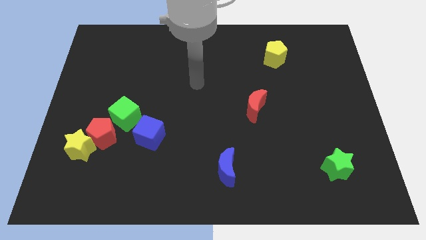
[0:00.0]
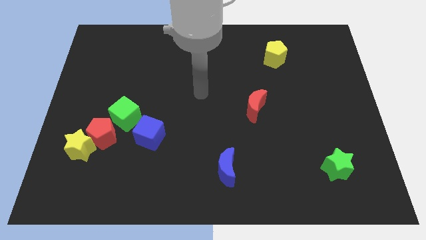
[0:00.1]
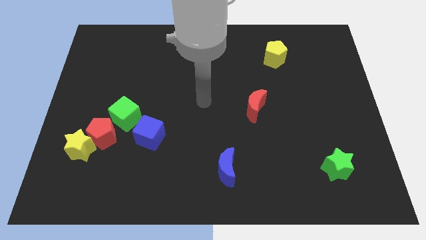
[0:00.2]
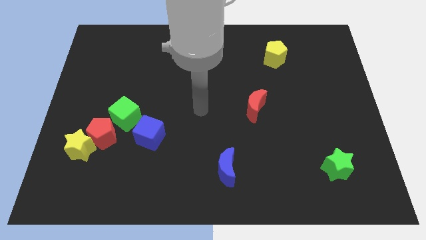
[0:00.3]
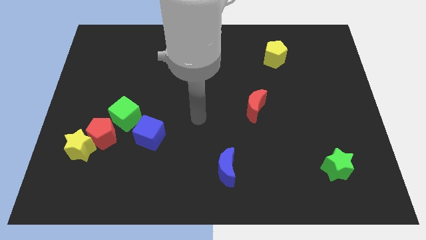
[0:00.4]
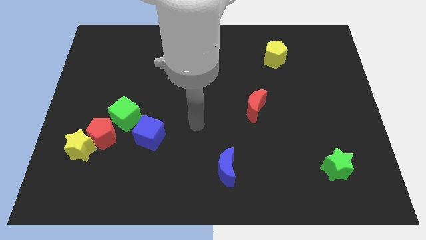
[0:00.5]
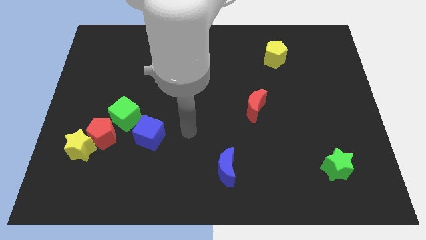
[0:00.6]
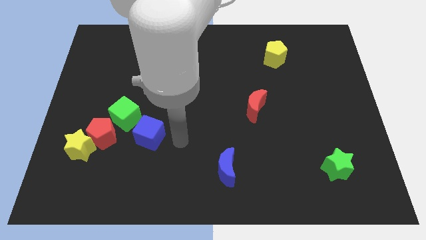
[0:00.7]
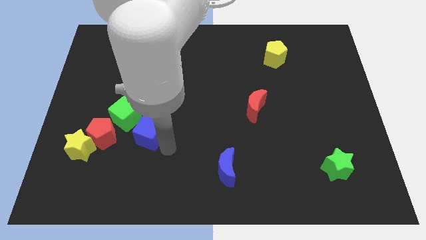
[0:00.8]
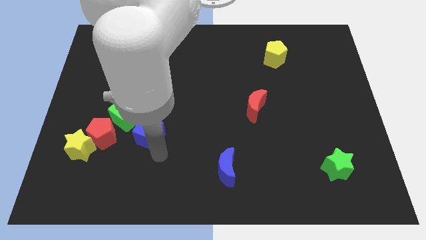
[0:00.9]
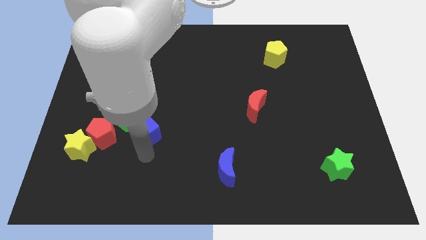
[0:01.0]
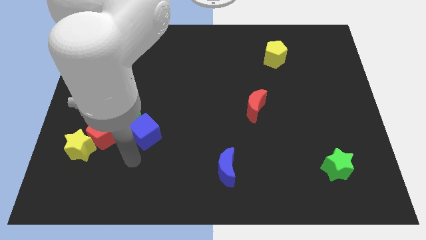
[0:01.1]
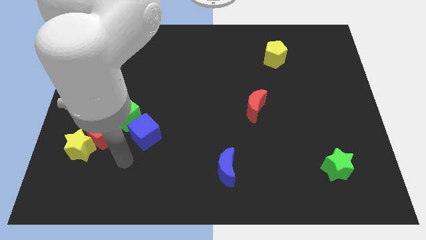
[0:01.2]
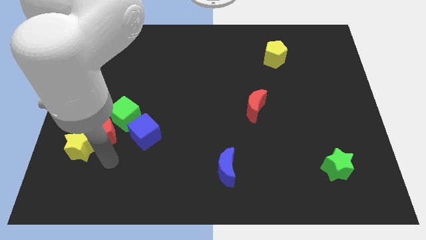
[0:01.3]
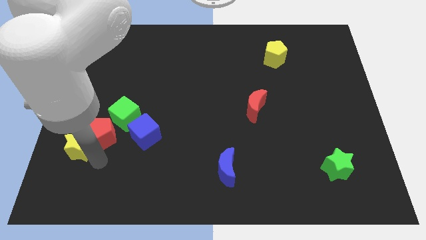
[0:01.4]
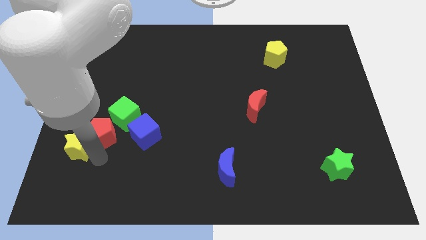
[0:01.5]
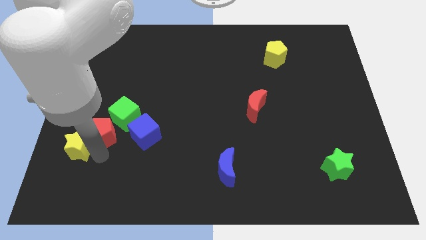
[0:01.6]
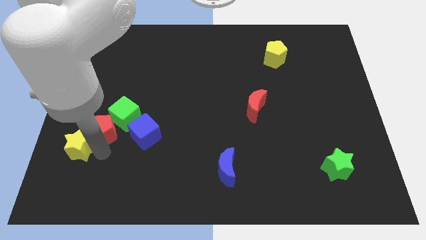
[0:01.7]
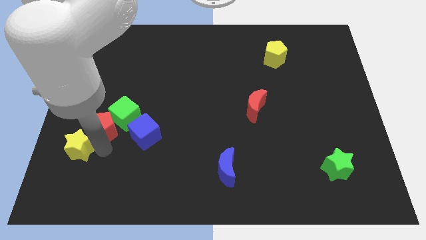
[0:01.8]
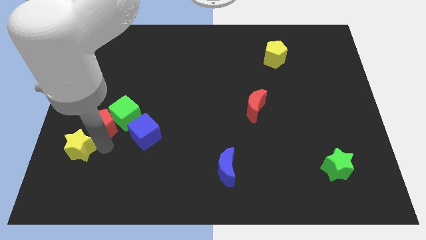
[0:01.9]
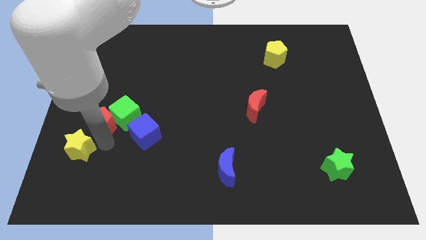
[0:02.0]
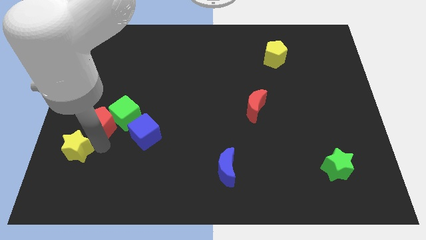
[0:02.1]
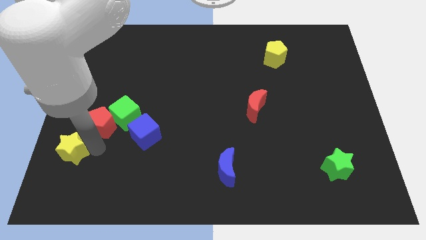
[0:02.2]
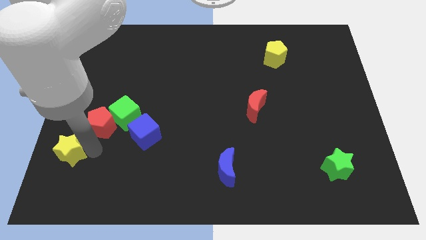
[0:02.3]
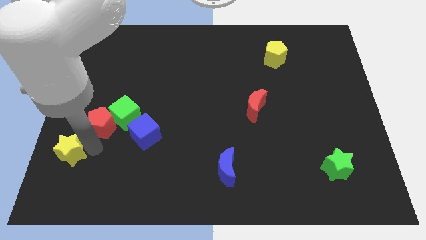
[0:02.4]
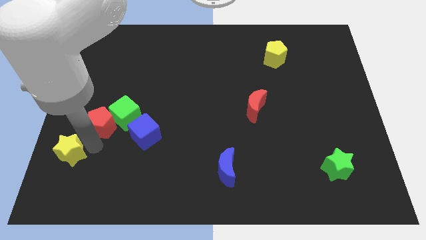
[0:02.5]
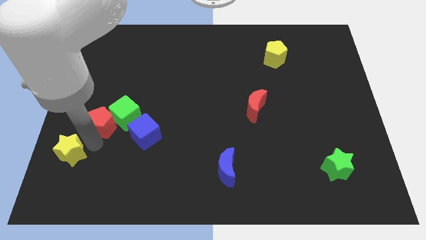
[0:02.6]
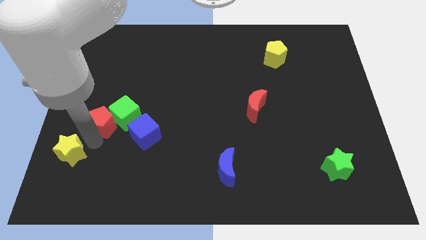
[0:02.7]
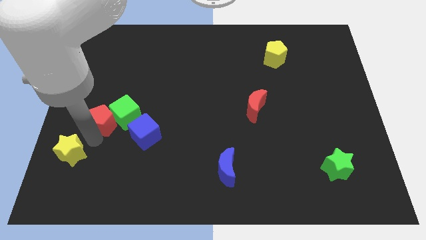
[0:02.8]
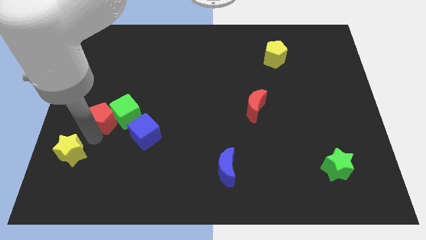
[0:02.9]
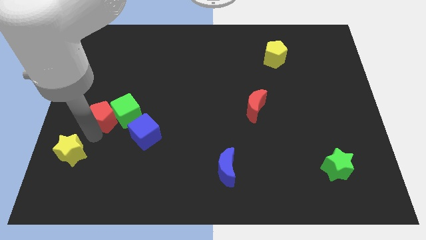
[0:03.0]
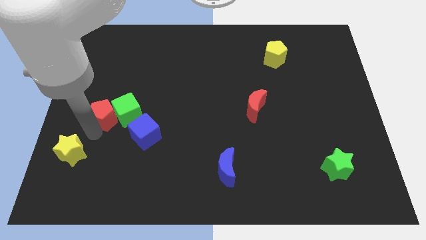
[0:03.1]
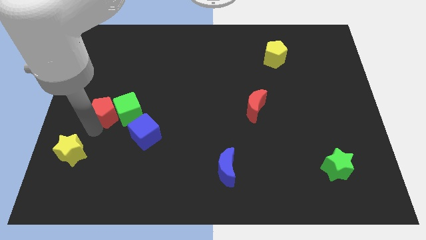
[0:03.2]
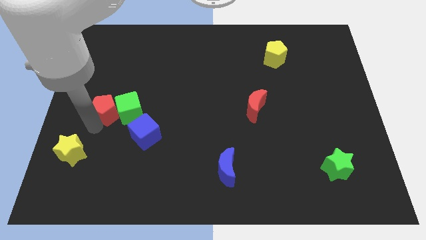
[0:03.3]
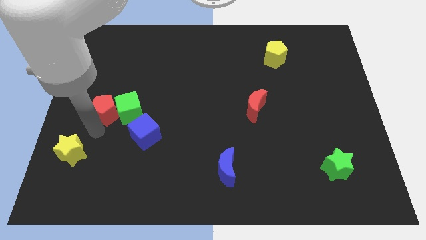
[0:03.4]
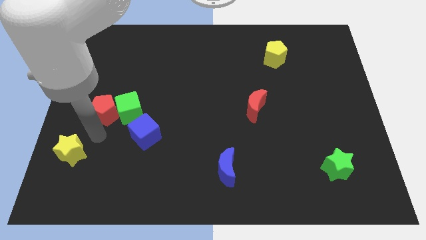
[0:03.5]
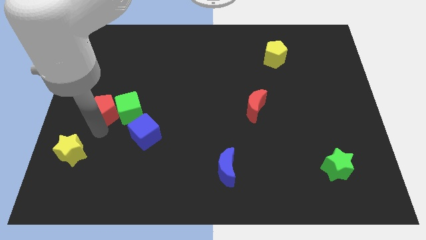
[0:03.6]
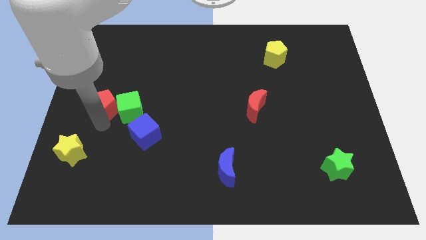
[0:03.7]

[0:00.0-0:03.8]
slightly move the red pentagon upwards

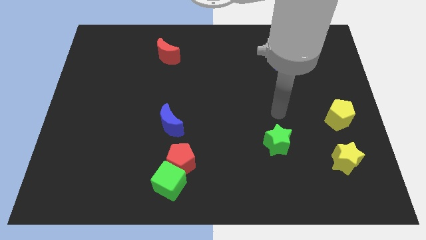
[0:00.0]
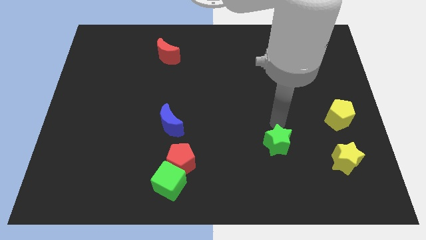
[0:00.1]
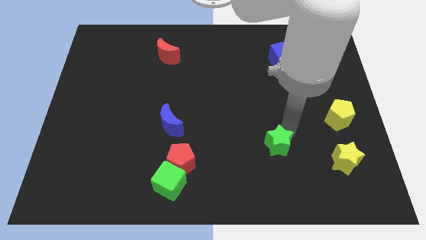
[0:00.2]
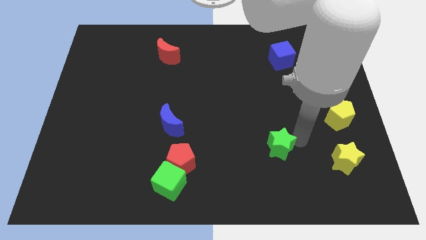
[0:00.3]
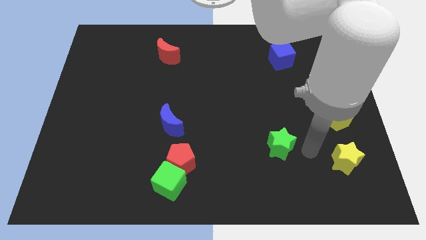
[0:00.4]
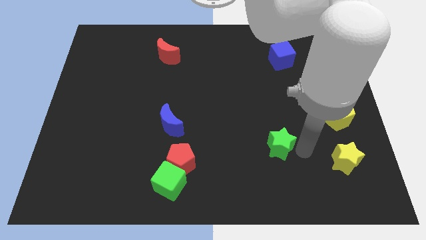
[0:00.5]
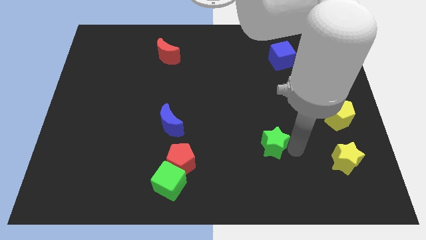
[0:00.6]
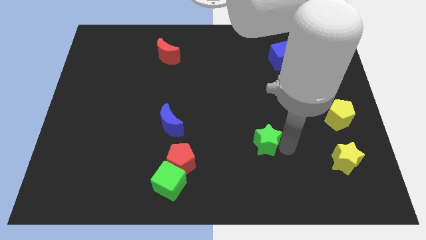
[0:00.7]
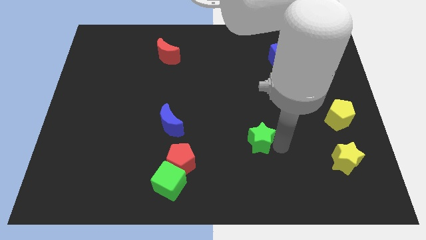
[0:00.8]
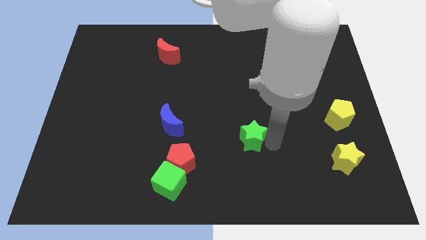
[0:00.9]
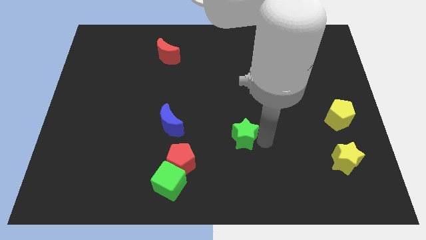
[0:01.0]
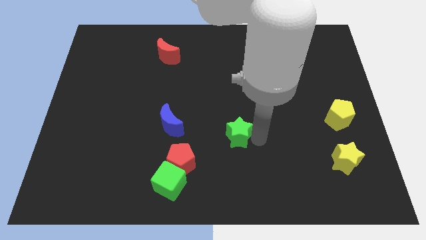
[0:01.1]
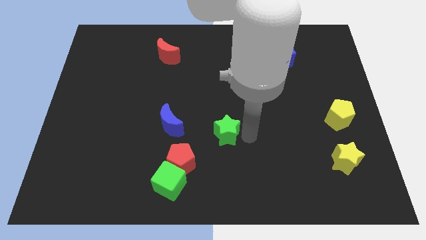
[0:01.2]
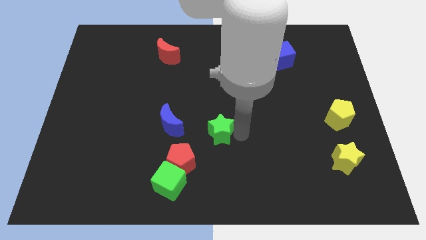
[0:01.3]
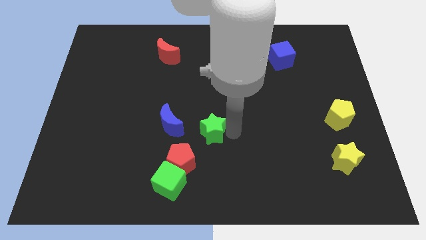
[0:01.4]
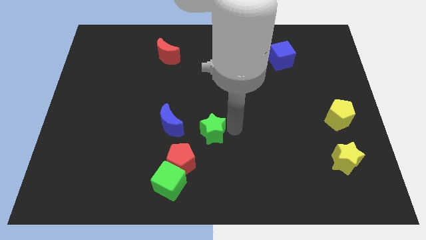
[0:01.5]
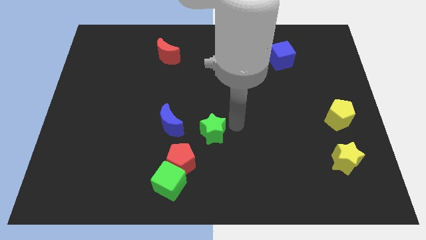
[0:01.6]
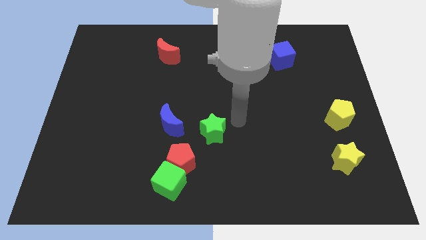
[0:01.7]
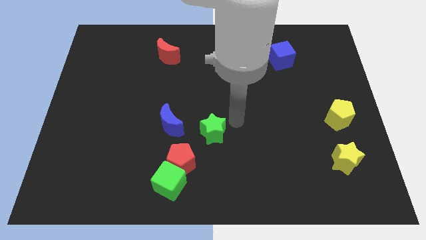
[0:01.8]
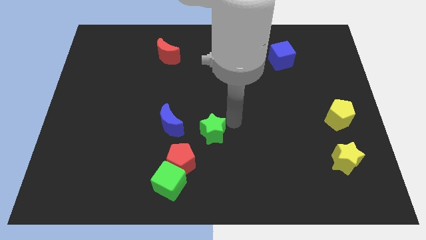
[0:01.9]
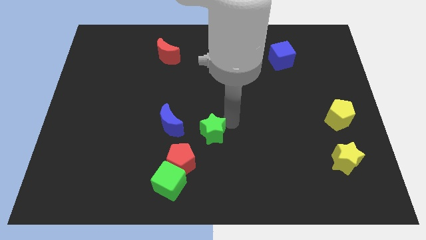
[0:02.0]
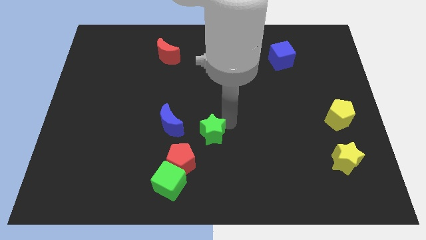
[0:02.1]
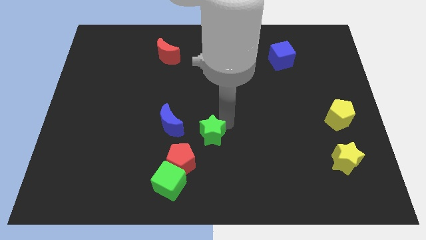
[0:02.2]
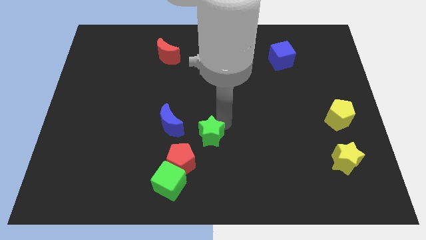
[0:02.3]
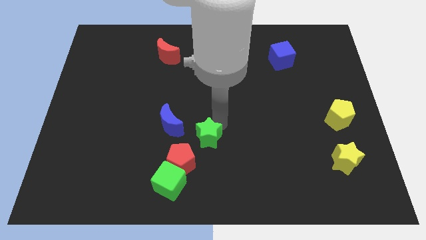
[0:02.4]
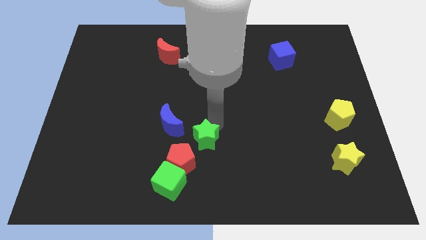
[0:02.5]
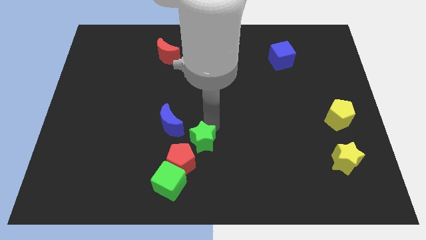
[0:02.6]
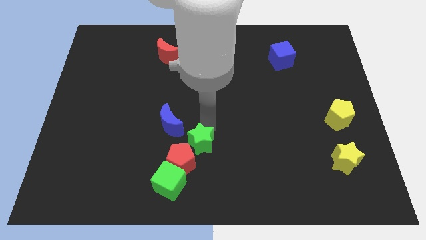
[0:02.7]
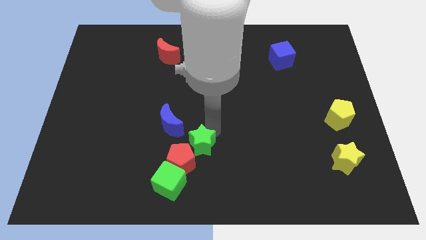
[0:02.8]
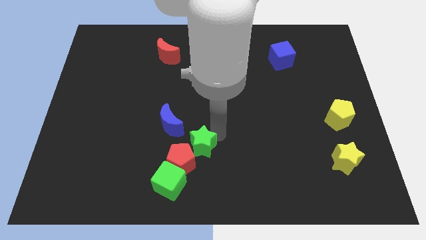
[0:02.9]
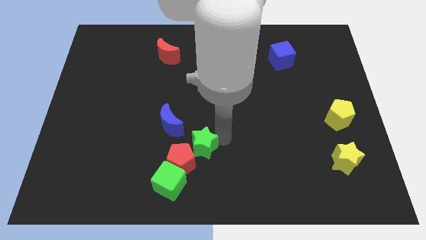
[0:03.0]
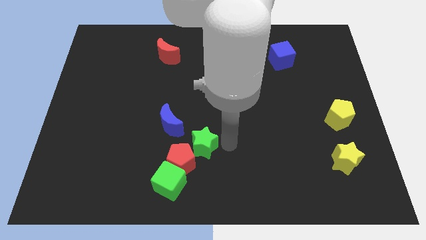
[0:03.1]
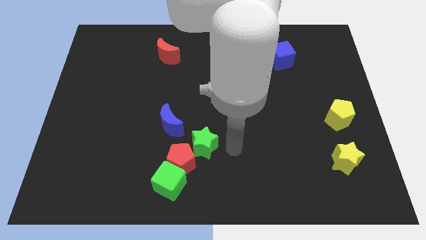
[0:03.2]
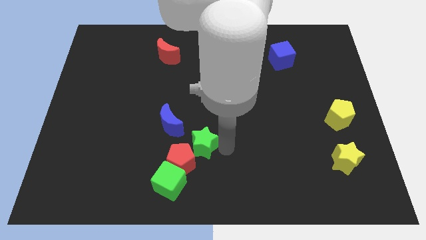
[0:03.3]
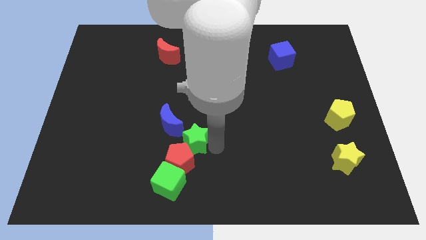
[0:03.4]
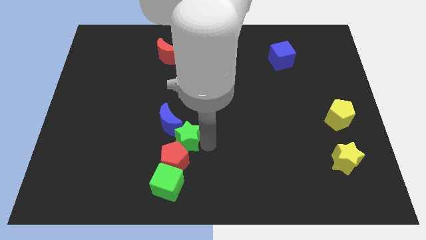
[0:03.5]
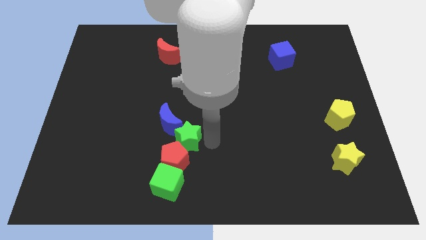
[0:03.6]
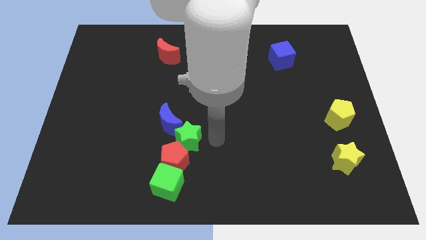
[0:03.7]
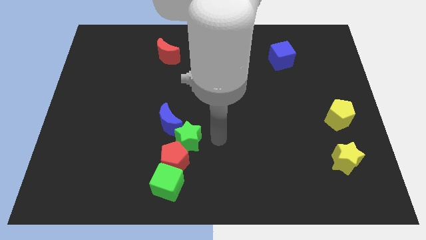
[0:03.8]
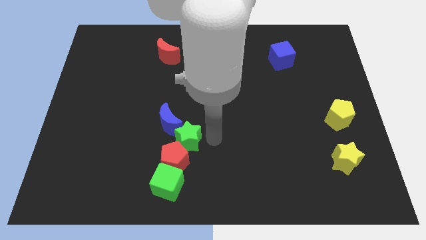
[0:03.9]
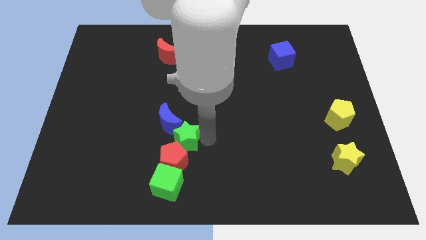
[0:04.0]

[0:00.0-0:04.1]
move the green star left

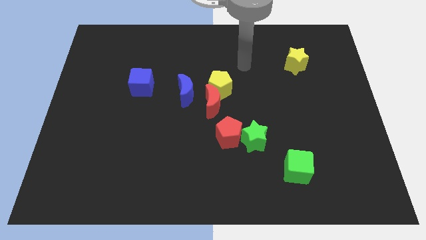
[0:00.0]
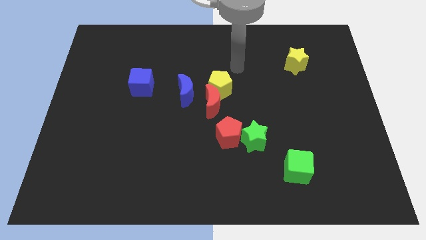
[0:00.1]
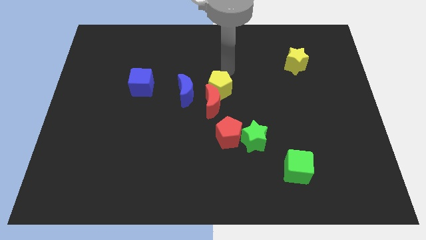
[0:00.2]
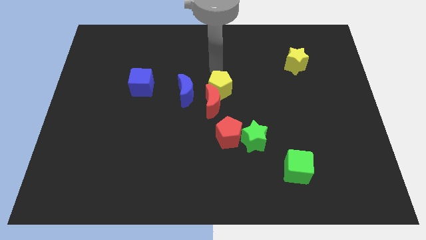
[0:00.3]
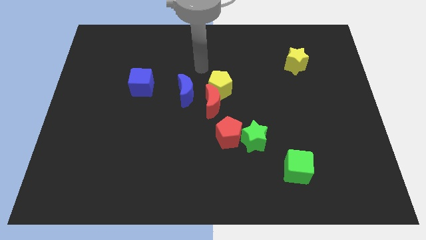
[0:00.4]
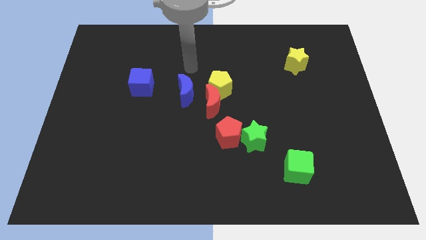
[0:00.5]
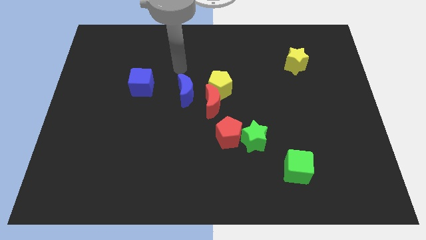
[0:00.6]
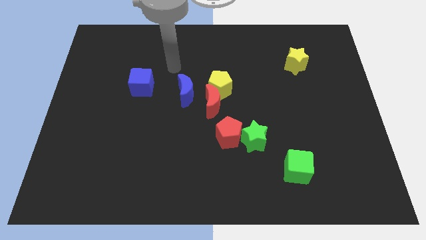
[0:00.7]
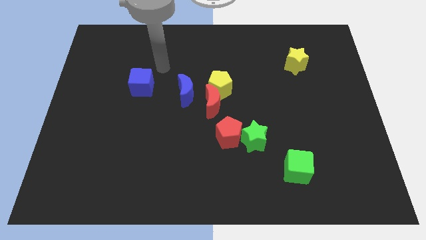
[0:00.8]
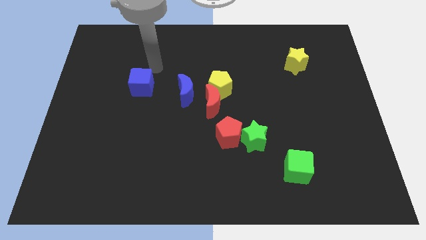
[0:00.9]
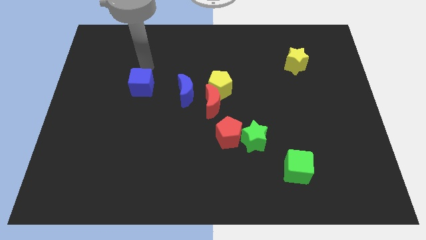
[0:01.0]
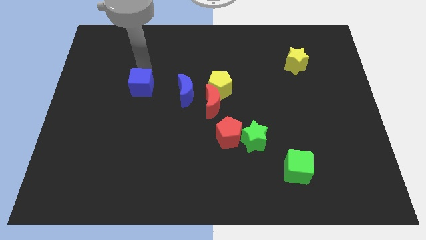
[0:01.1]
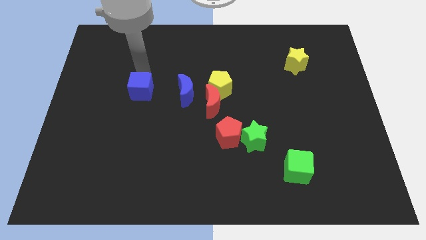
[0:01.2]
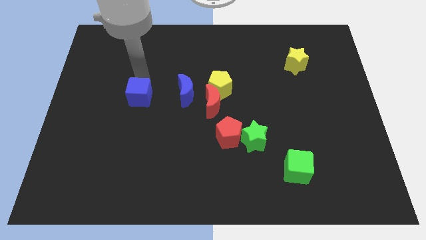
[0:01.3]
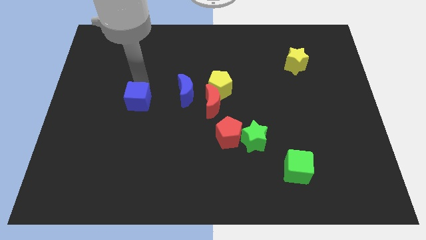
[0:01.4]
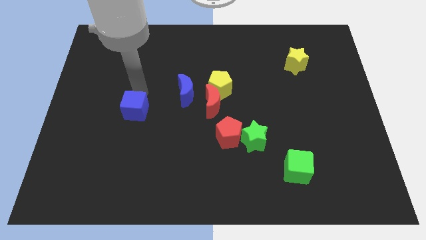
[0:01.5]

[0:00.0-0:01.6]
push the blue cube downwards a bit
